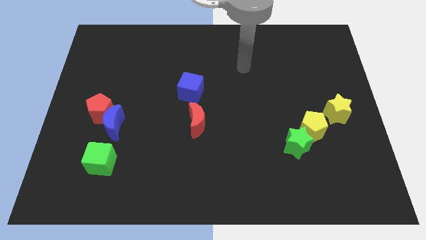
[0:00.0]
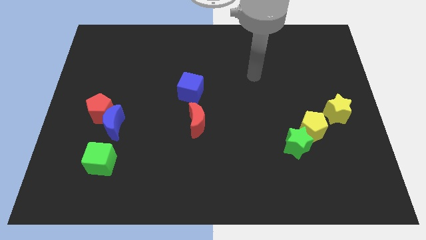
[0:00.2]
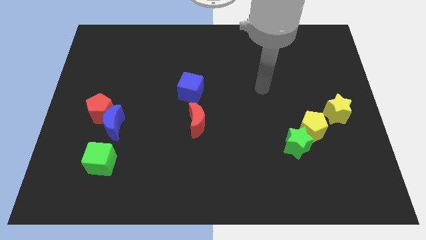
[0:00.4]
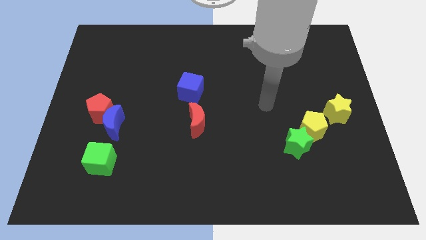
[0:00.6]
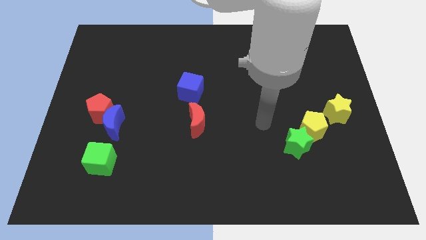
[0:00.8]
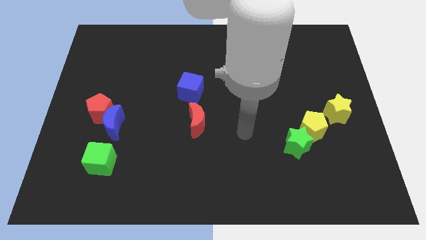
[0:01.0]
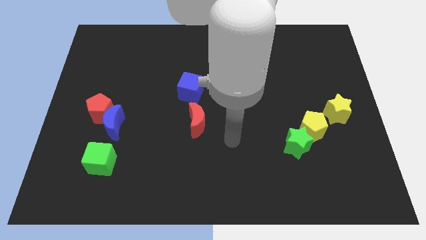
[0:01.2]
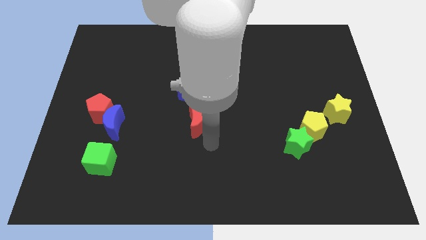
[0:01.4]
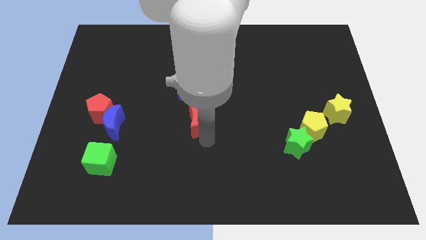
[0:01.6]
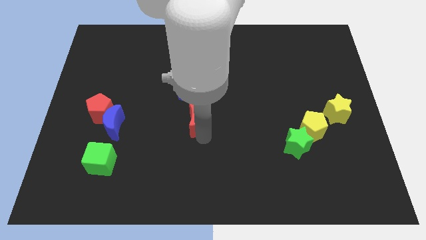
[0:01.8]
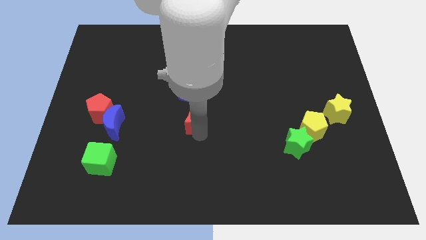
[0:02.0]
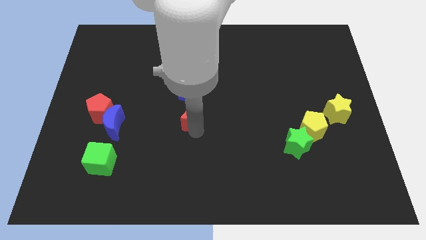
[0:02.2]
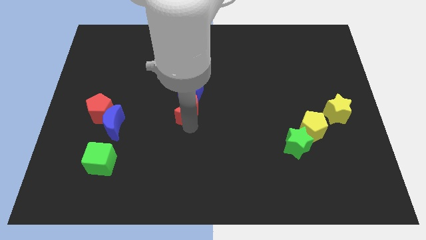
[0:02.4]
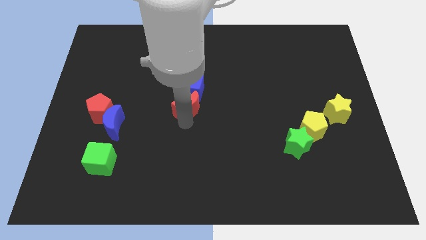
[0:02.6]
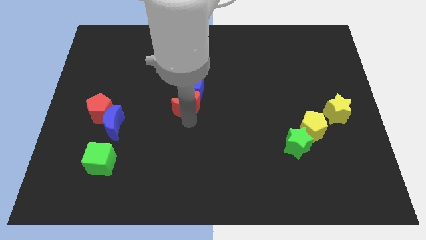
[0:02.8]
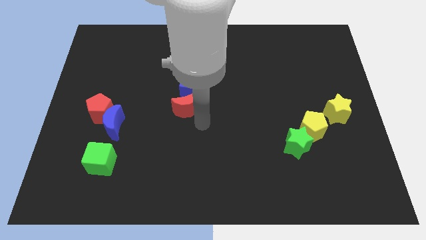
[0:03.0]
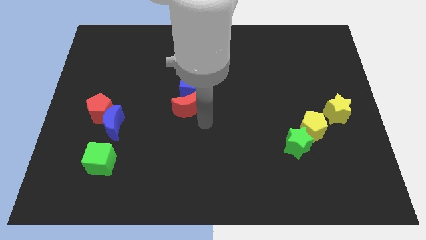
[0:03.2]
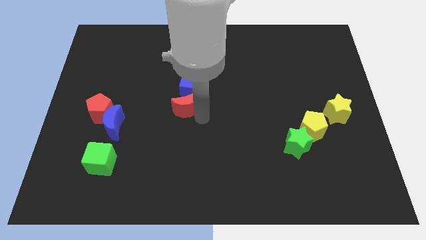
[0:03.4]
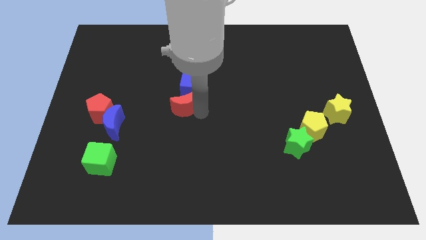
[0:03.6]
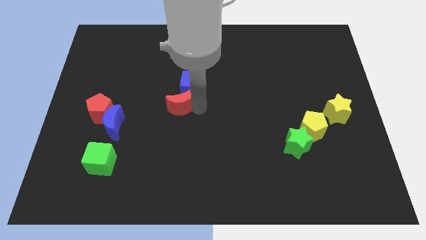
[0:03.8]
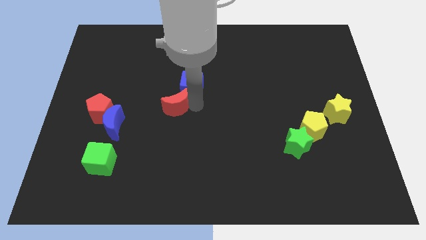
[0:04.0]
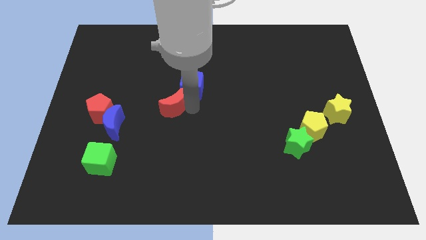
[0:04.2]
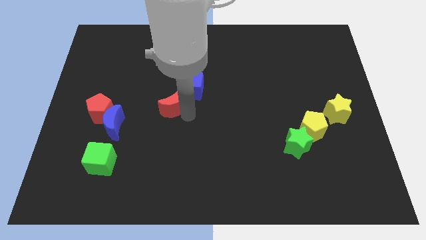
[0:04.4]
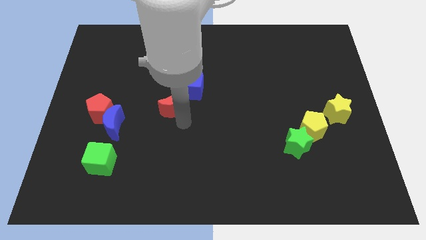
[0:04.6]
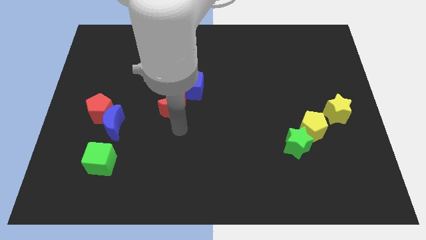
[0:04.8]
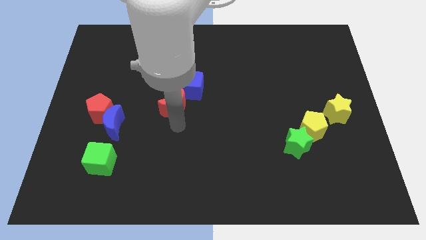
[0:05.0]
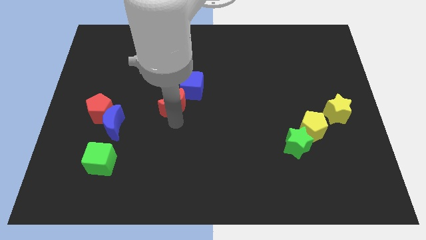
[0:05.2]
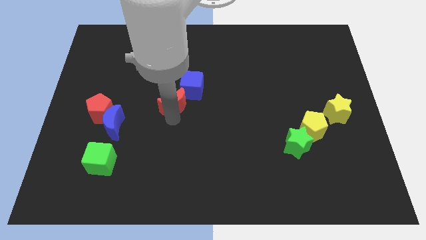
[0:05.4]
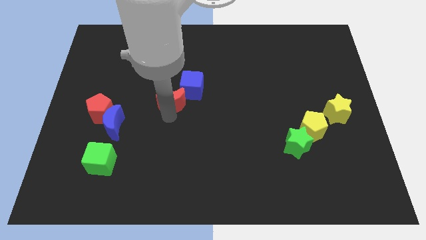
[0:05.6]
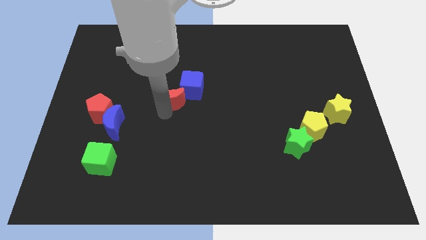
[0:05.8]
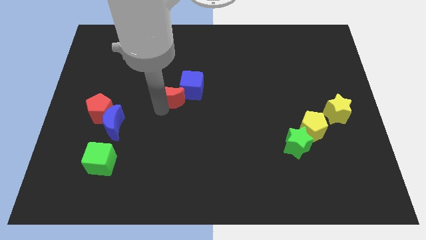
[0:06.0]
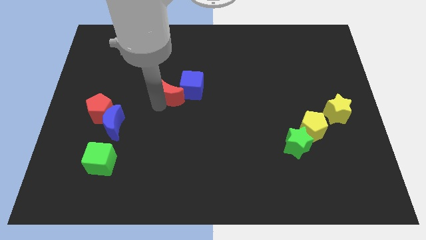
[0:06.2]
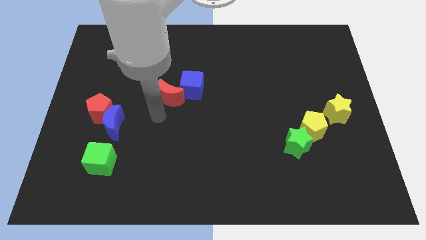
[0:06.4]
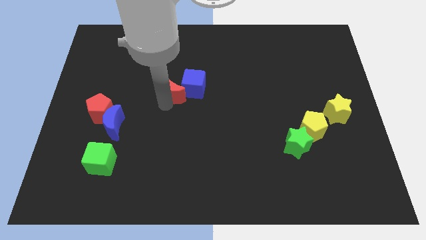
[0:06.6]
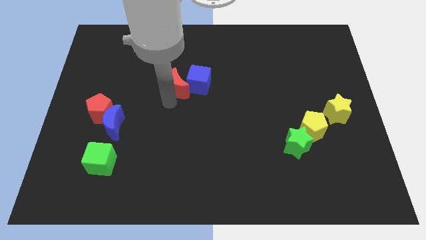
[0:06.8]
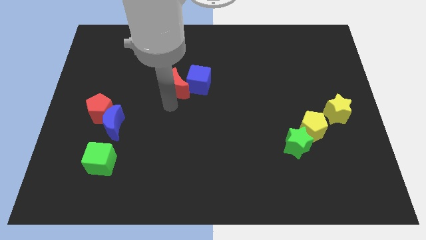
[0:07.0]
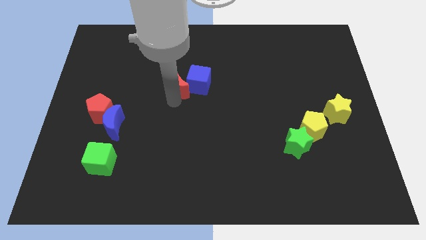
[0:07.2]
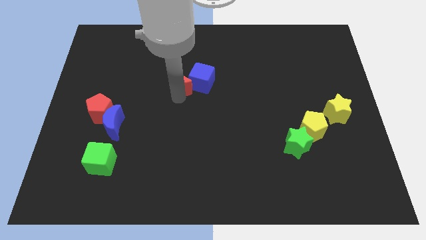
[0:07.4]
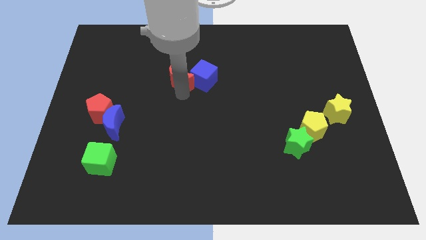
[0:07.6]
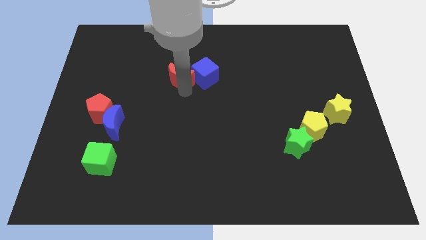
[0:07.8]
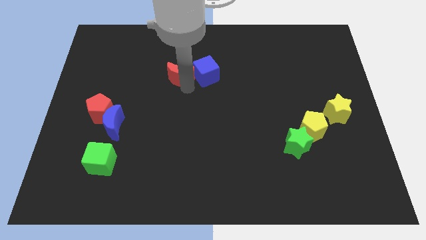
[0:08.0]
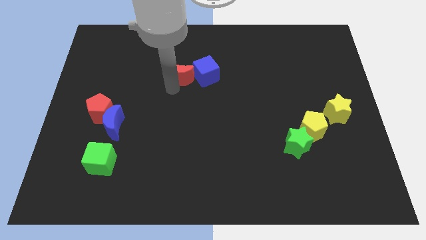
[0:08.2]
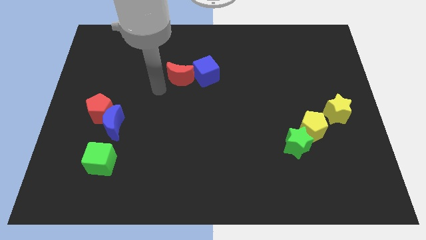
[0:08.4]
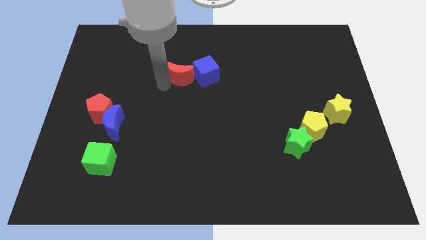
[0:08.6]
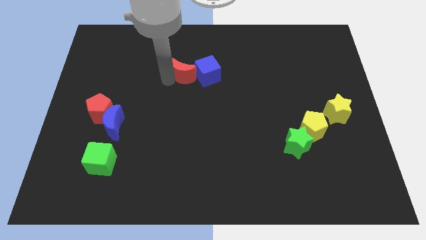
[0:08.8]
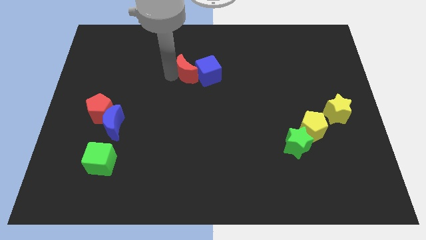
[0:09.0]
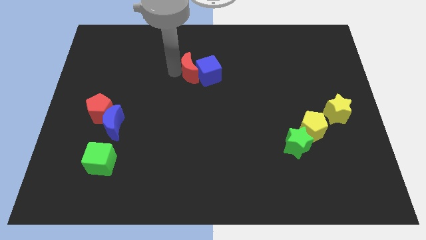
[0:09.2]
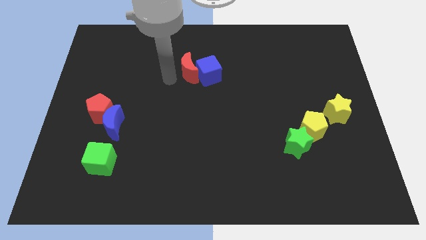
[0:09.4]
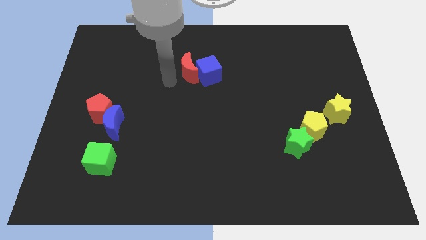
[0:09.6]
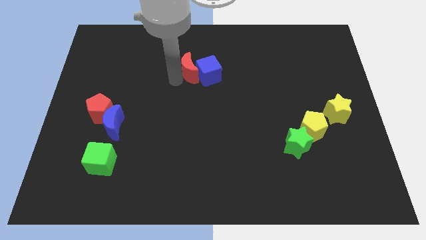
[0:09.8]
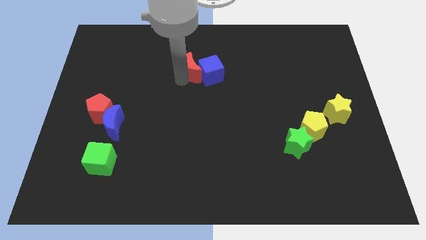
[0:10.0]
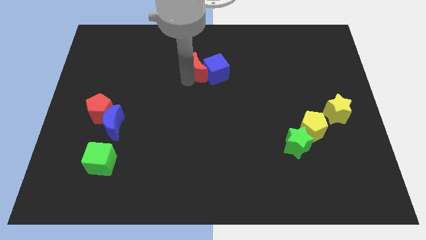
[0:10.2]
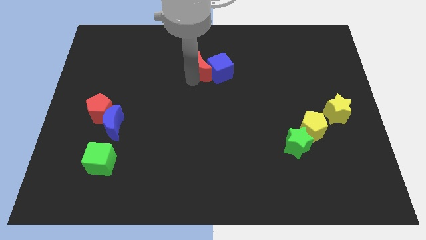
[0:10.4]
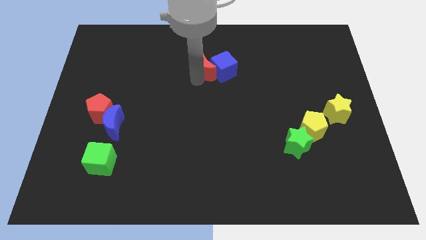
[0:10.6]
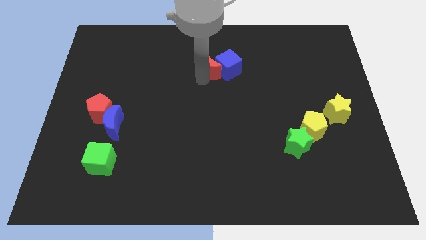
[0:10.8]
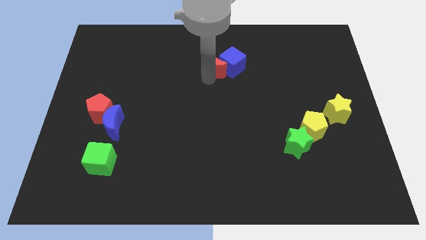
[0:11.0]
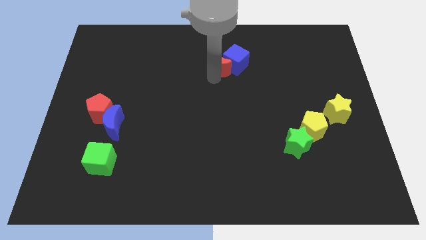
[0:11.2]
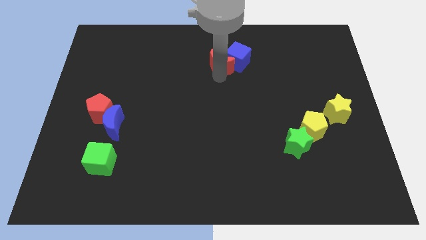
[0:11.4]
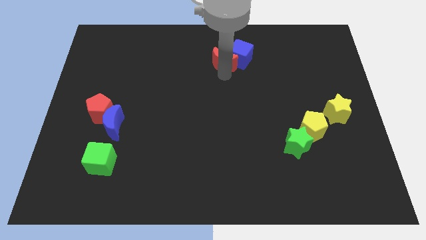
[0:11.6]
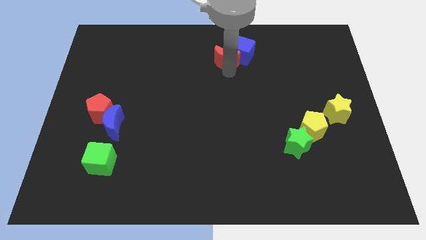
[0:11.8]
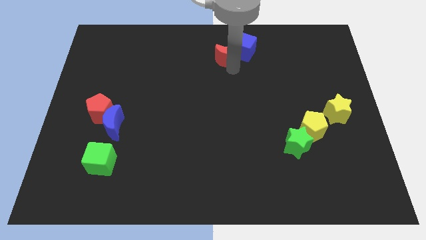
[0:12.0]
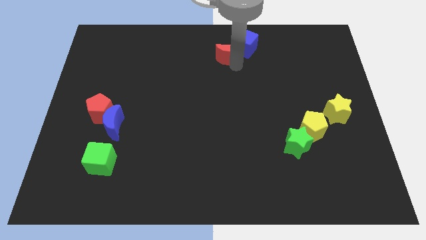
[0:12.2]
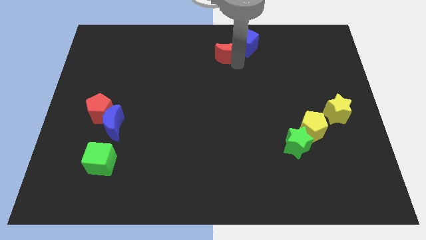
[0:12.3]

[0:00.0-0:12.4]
move the red moon to the towards your base

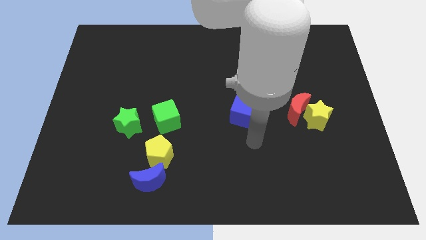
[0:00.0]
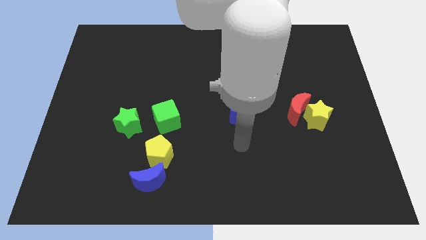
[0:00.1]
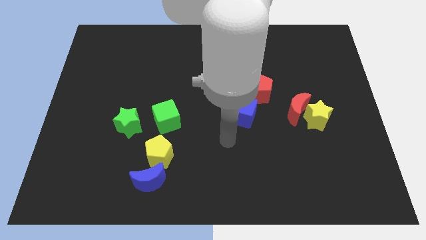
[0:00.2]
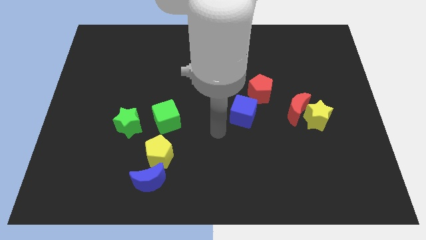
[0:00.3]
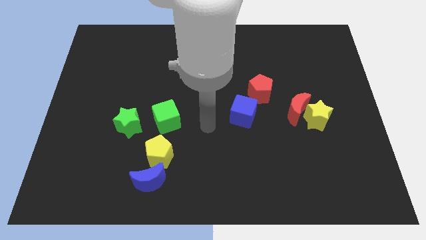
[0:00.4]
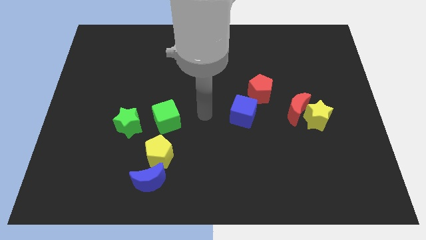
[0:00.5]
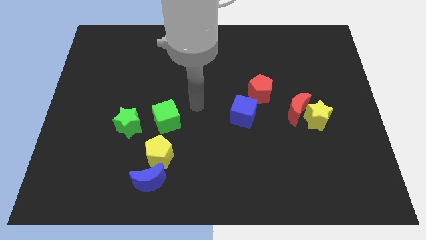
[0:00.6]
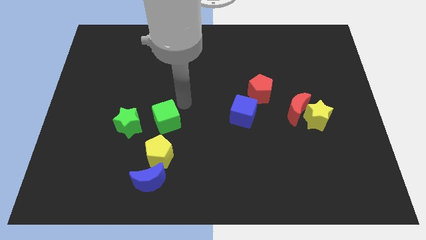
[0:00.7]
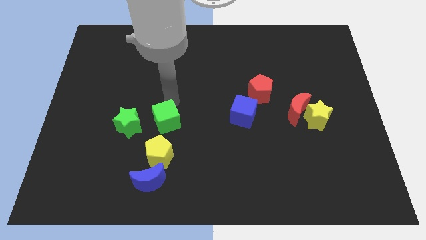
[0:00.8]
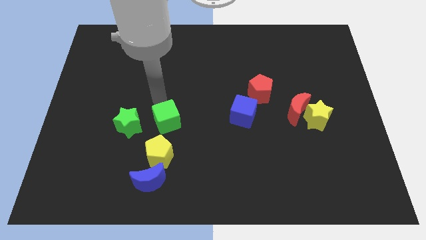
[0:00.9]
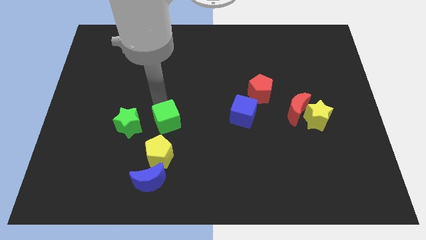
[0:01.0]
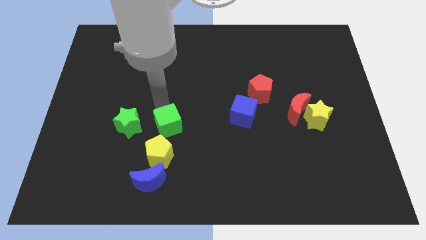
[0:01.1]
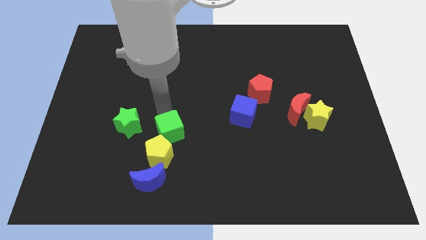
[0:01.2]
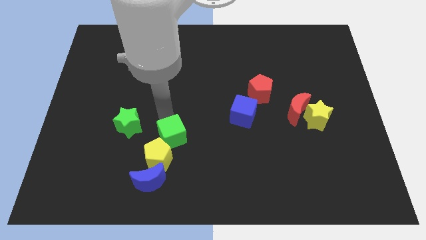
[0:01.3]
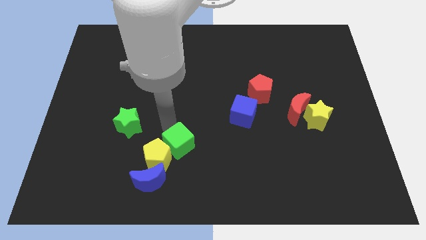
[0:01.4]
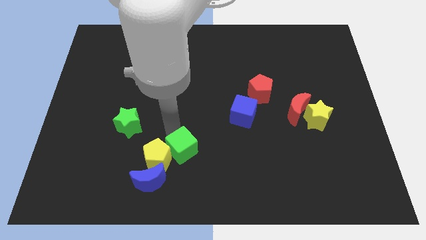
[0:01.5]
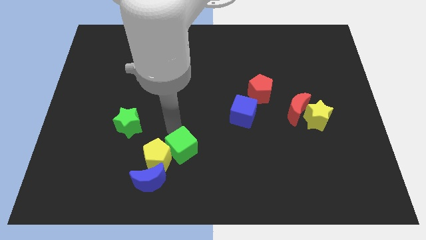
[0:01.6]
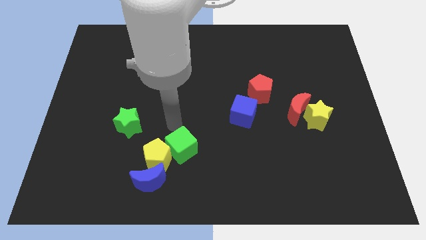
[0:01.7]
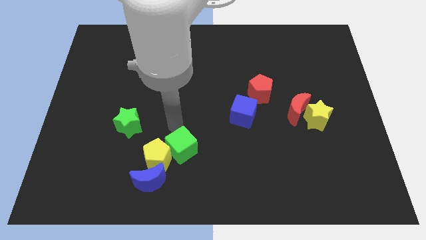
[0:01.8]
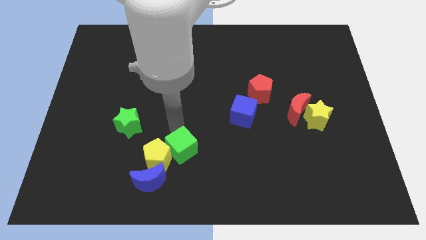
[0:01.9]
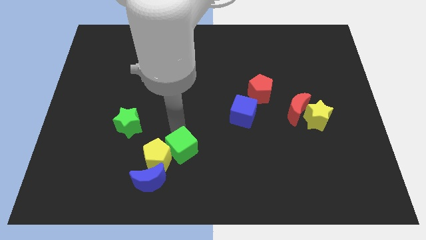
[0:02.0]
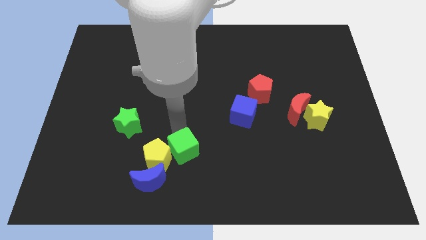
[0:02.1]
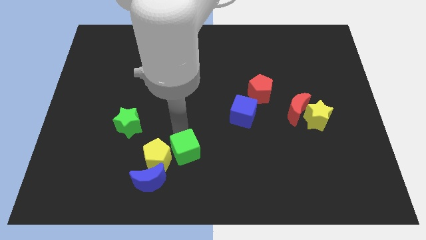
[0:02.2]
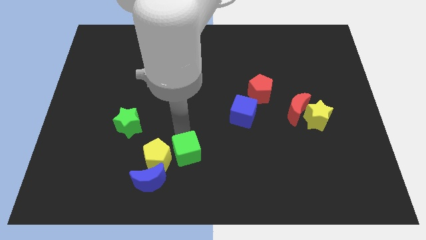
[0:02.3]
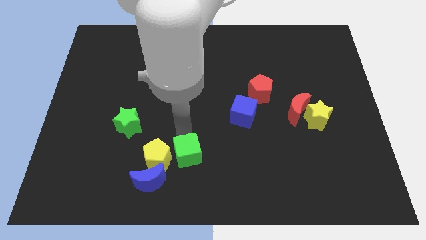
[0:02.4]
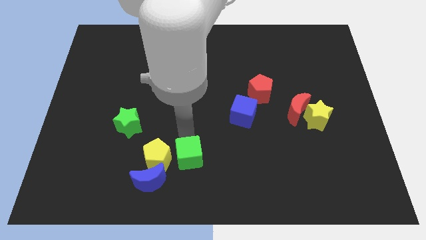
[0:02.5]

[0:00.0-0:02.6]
put the green cube to the bottom
